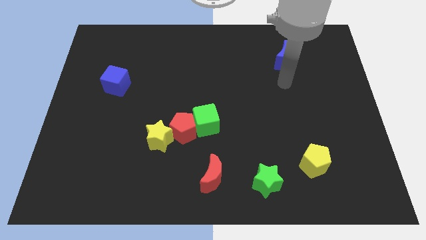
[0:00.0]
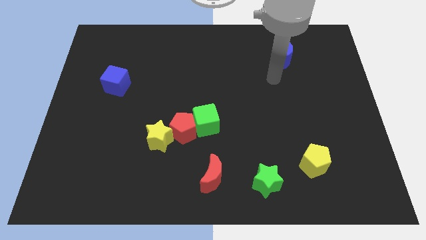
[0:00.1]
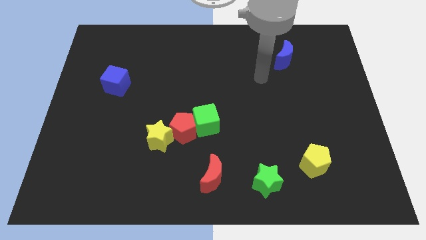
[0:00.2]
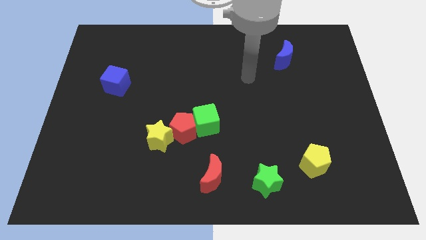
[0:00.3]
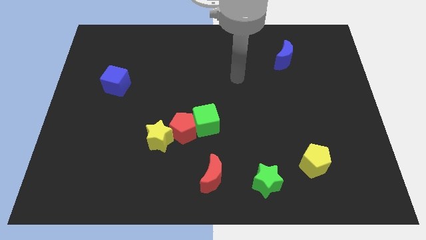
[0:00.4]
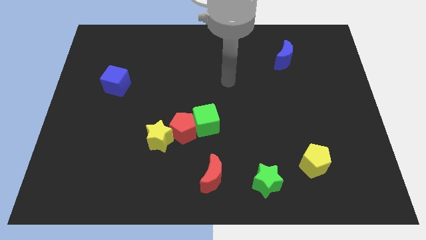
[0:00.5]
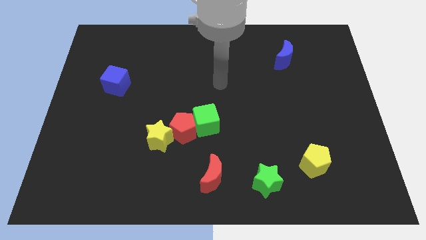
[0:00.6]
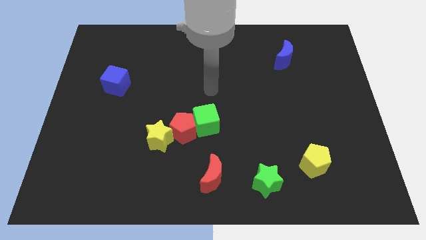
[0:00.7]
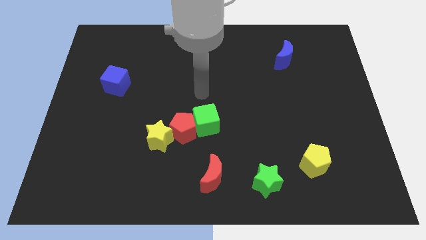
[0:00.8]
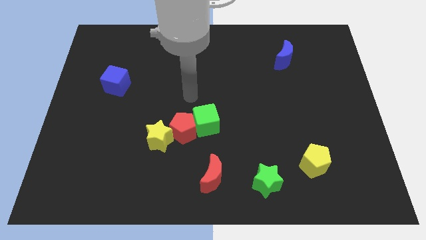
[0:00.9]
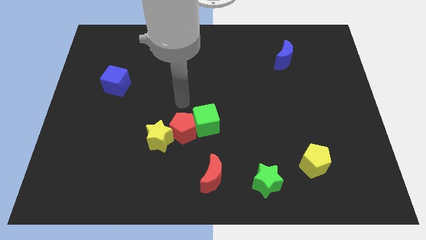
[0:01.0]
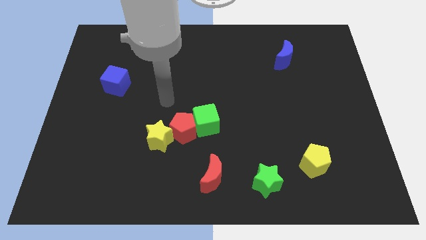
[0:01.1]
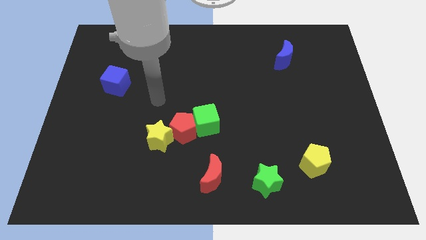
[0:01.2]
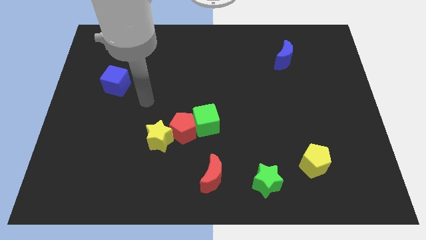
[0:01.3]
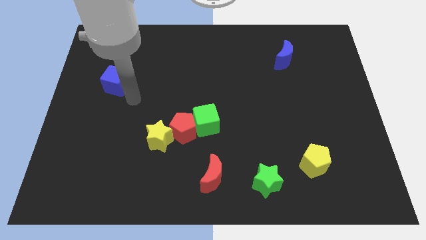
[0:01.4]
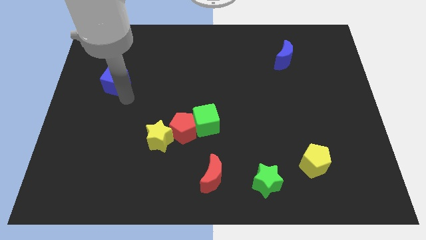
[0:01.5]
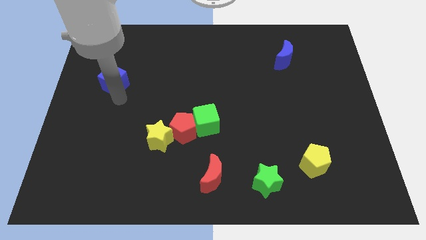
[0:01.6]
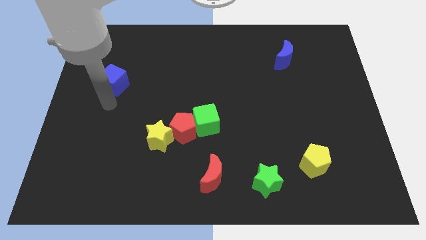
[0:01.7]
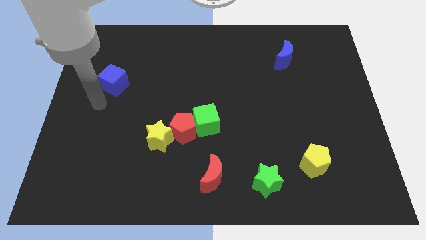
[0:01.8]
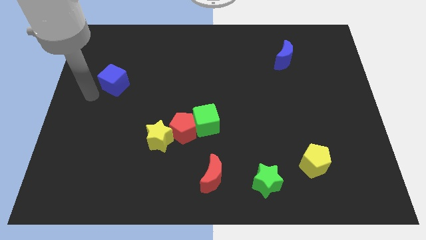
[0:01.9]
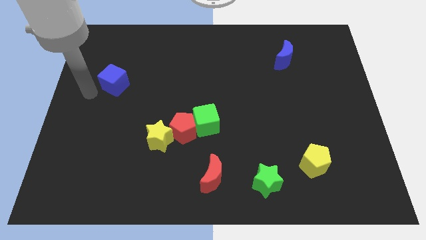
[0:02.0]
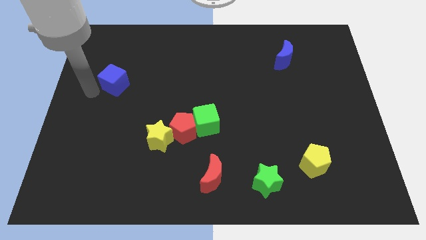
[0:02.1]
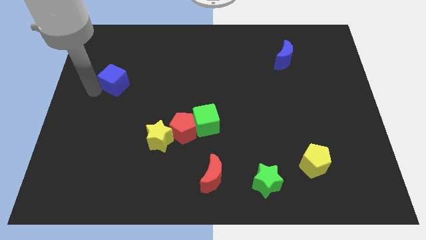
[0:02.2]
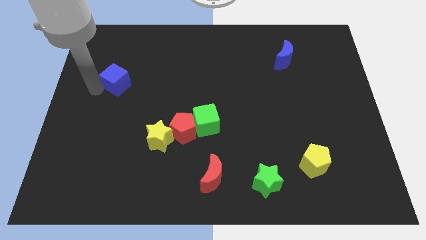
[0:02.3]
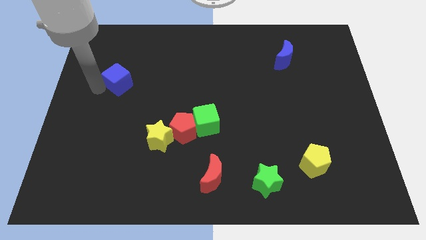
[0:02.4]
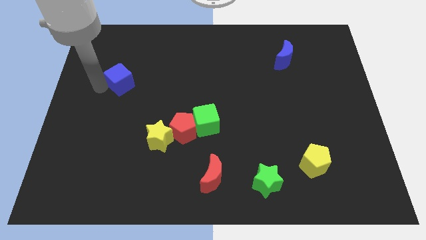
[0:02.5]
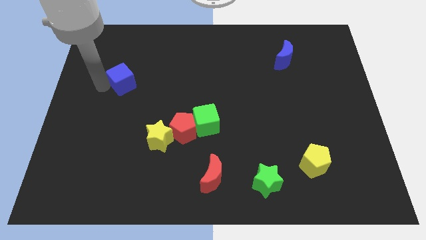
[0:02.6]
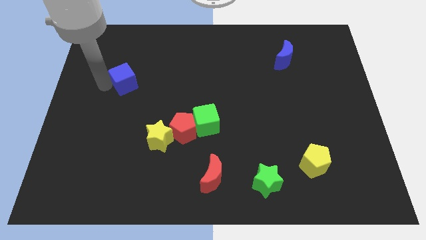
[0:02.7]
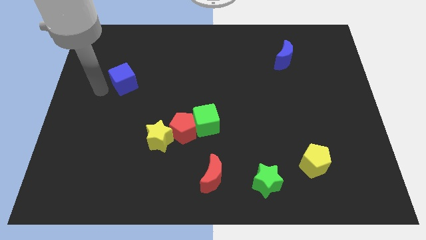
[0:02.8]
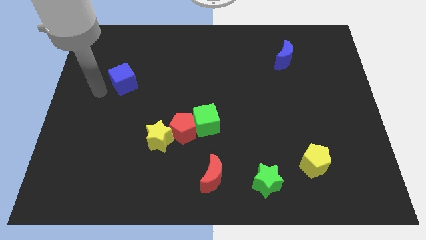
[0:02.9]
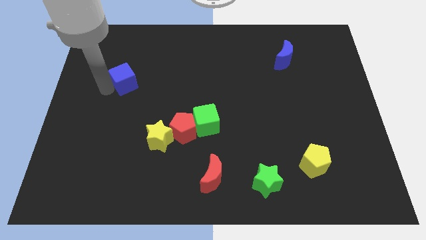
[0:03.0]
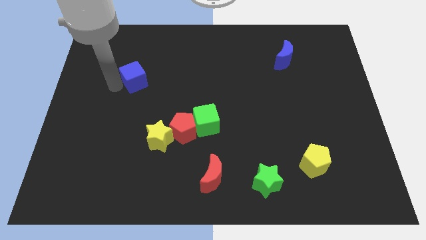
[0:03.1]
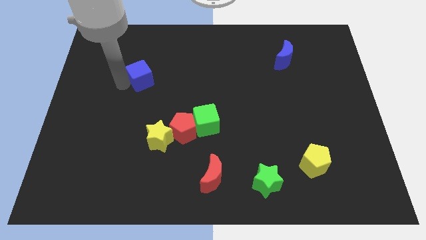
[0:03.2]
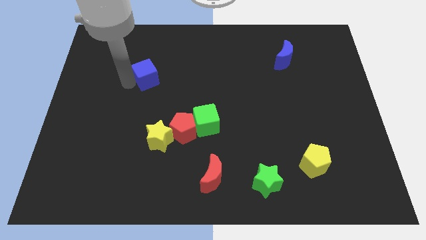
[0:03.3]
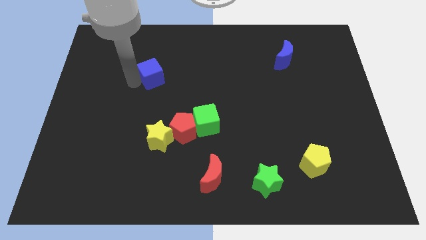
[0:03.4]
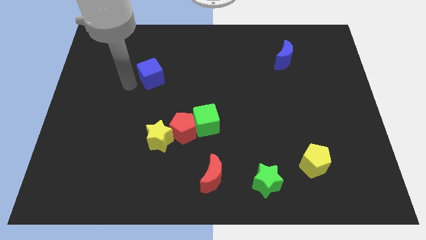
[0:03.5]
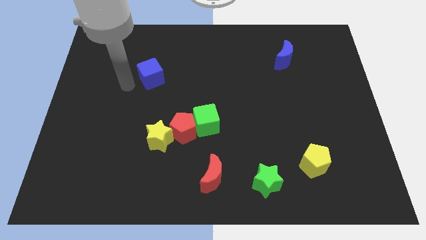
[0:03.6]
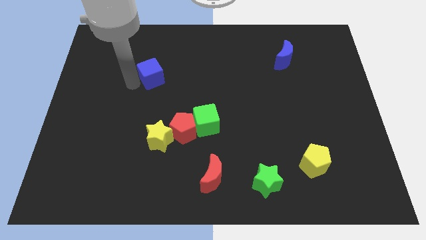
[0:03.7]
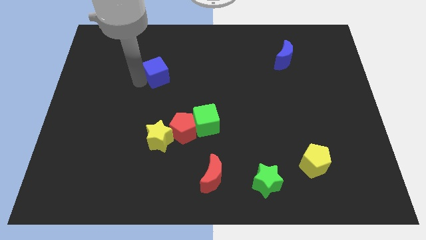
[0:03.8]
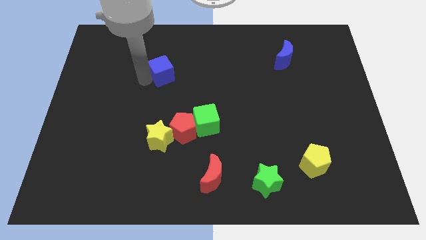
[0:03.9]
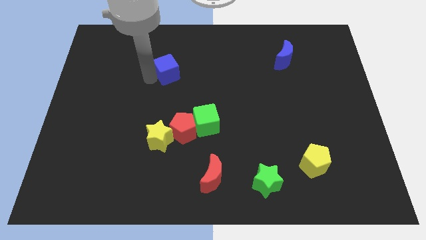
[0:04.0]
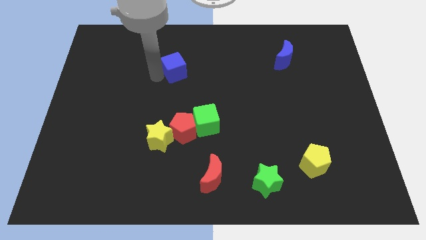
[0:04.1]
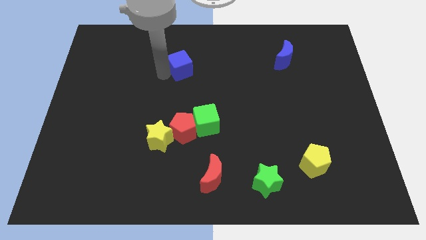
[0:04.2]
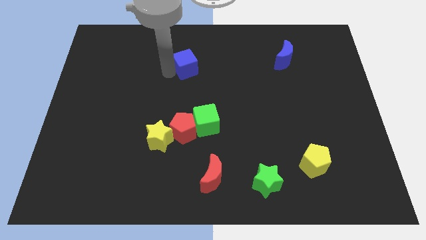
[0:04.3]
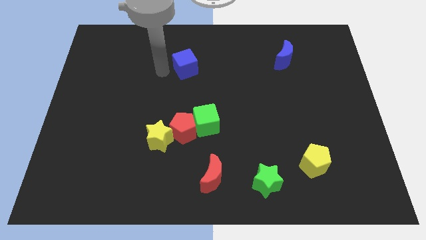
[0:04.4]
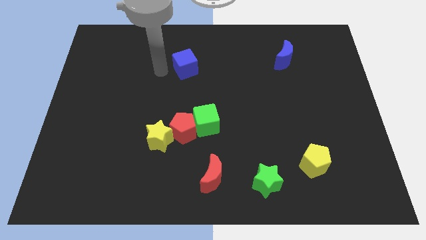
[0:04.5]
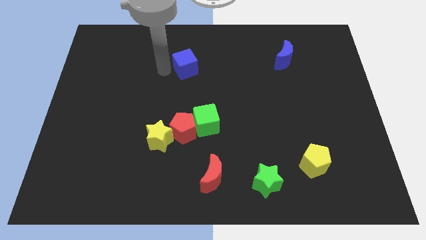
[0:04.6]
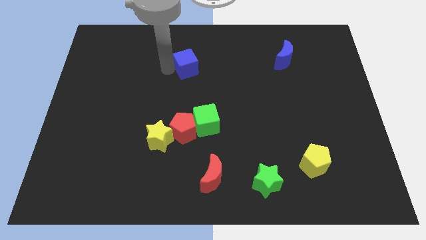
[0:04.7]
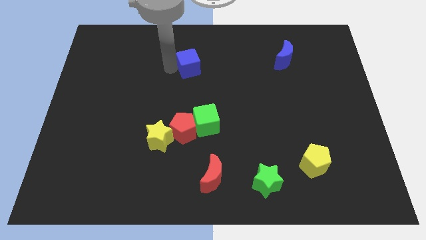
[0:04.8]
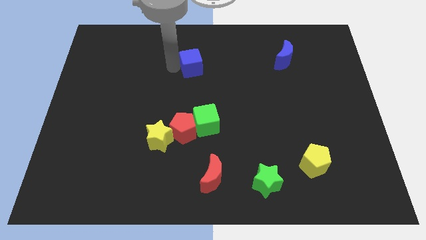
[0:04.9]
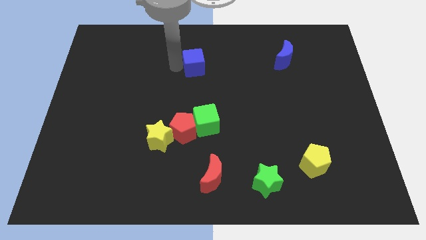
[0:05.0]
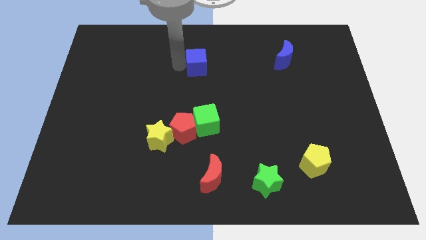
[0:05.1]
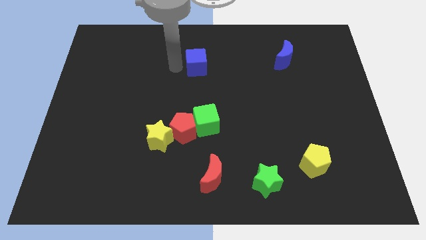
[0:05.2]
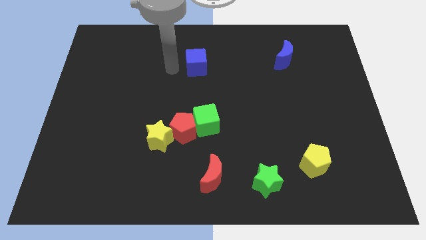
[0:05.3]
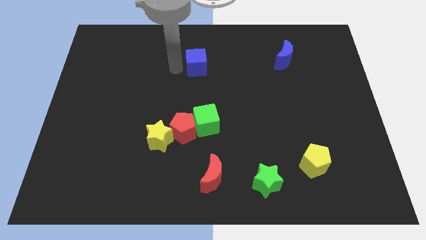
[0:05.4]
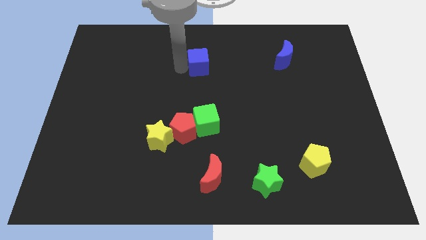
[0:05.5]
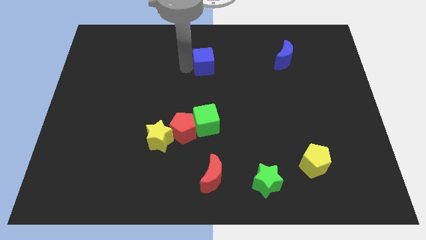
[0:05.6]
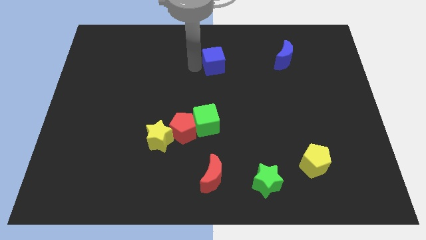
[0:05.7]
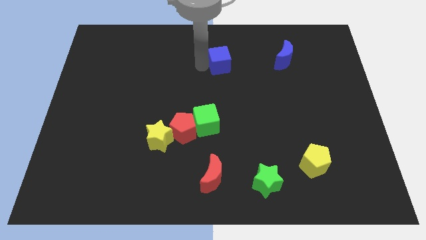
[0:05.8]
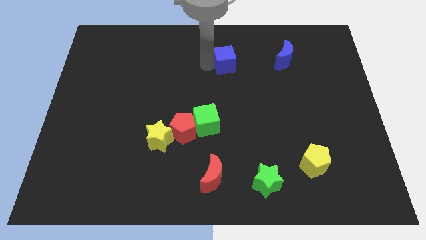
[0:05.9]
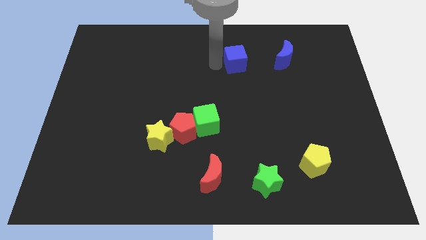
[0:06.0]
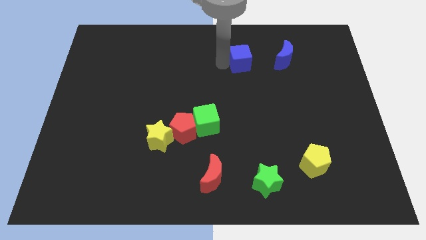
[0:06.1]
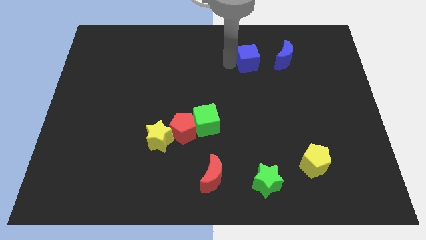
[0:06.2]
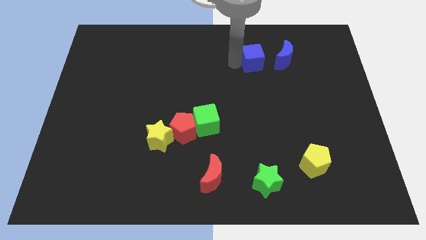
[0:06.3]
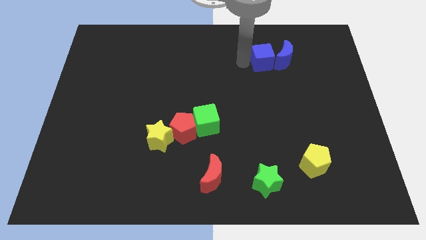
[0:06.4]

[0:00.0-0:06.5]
put the blue cube close to the blue moon

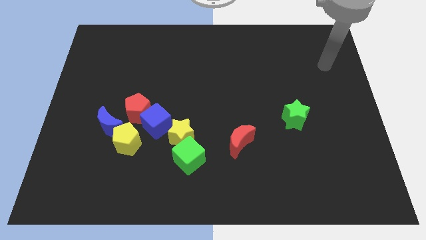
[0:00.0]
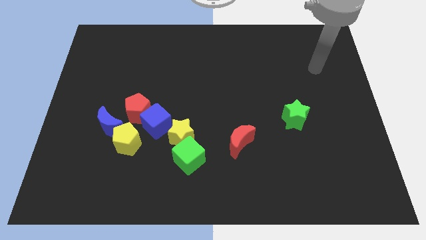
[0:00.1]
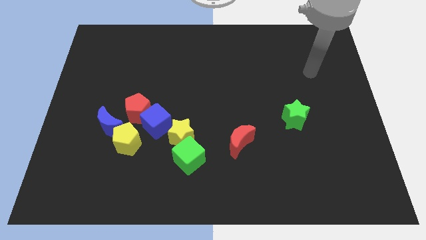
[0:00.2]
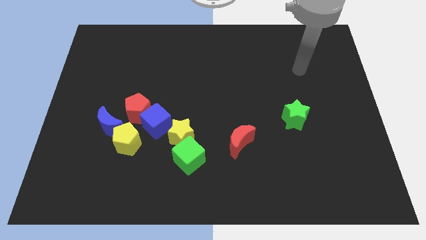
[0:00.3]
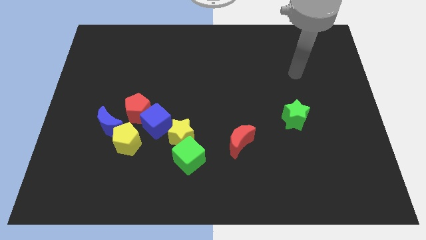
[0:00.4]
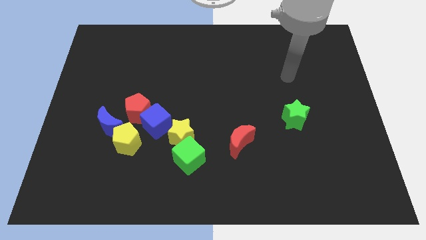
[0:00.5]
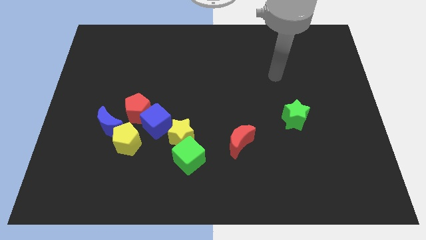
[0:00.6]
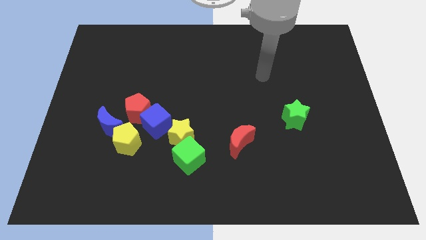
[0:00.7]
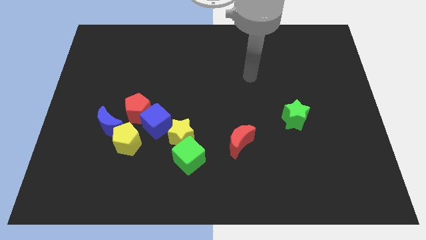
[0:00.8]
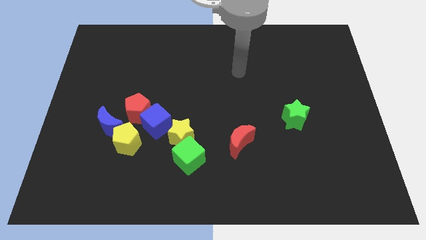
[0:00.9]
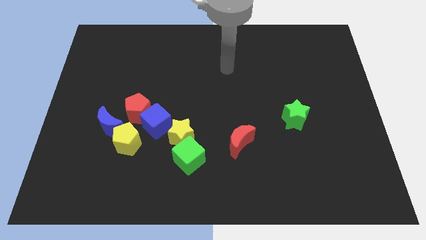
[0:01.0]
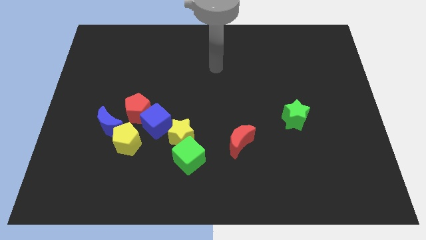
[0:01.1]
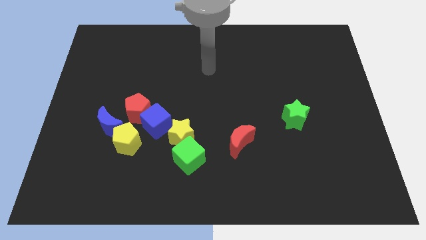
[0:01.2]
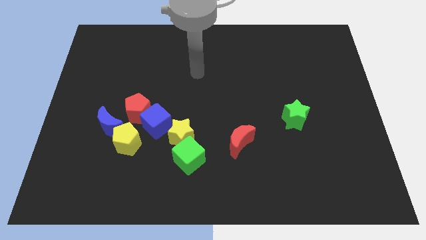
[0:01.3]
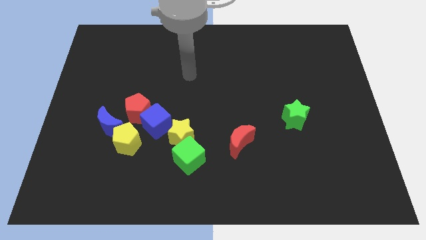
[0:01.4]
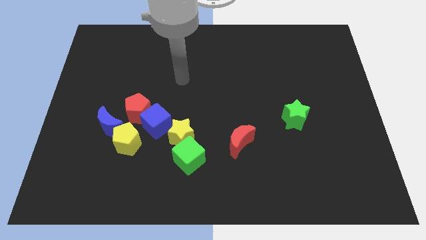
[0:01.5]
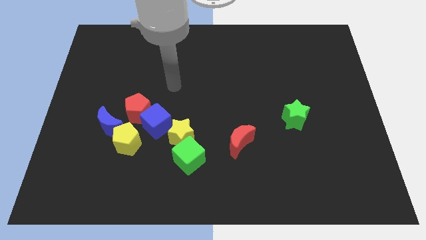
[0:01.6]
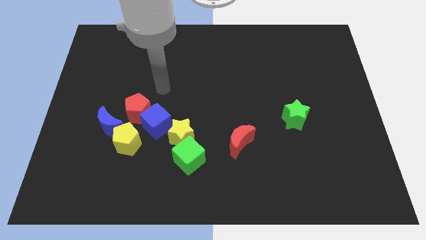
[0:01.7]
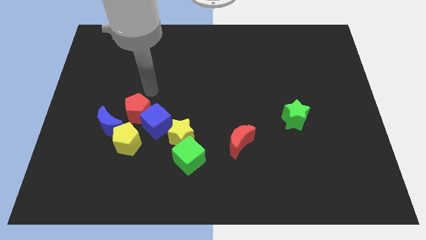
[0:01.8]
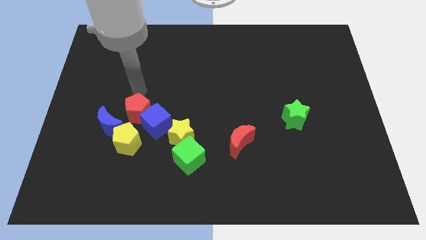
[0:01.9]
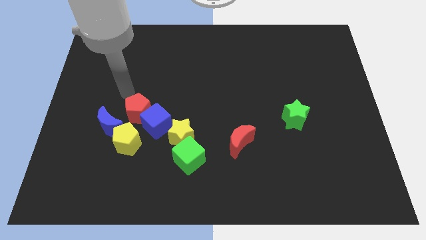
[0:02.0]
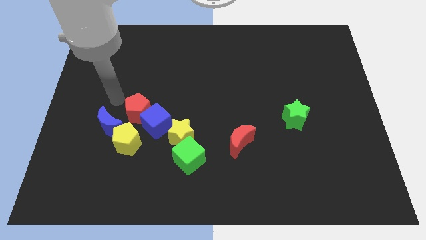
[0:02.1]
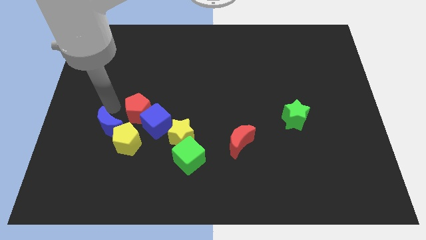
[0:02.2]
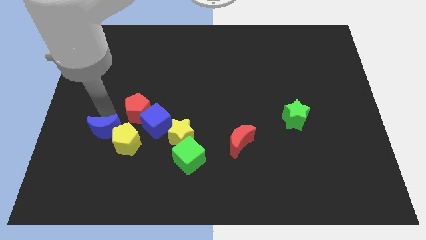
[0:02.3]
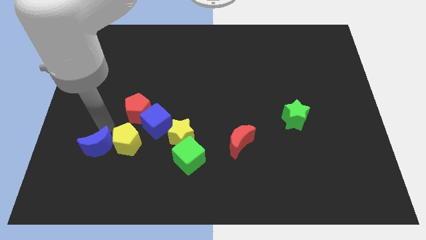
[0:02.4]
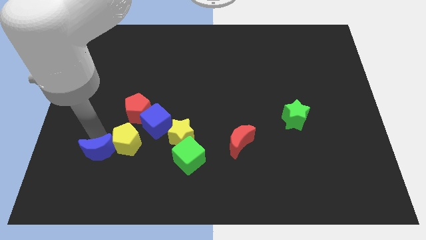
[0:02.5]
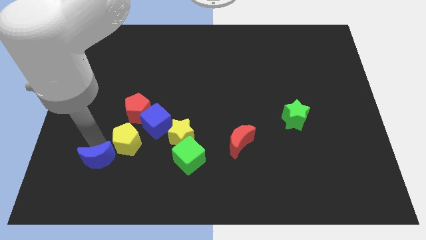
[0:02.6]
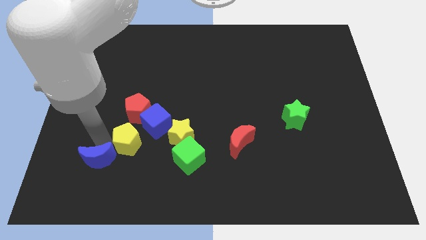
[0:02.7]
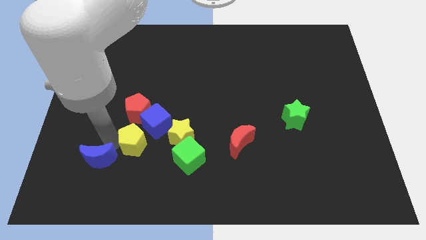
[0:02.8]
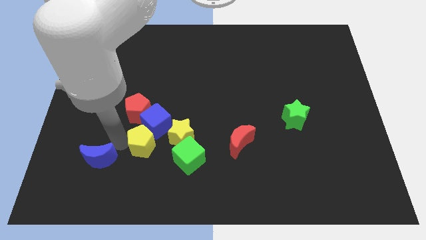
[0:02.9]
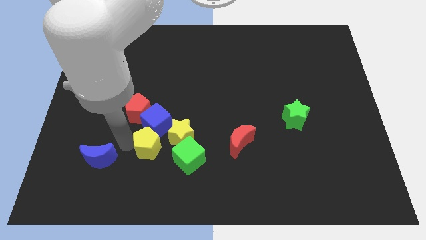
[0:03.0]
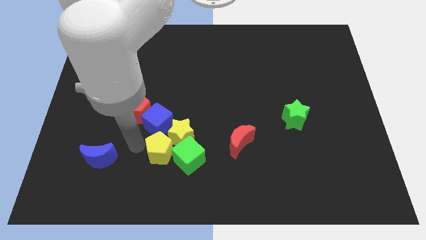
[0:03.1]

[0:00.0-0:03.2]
put the yellow pentagon close to the yellow star
